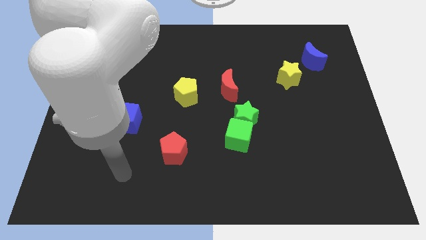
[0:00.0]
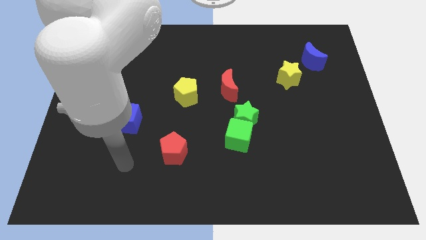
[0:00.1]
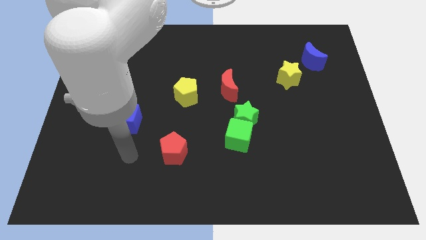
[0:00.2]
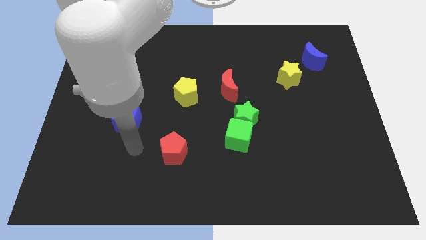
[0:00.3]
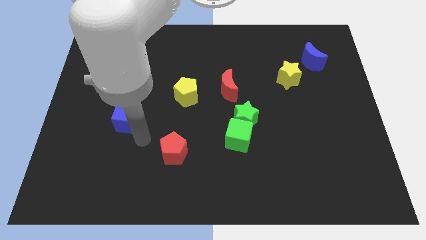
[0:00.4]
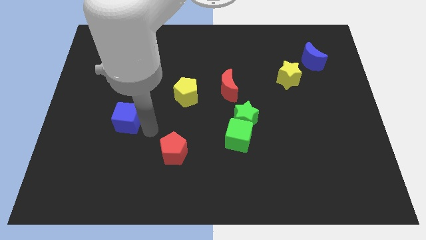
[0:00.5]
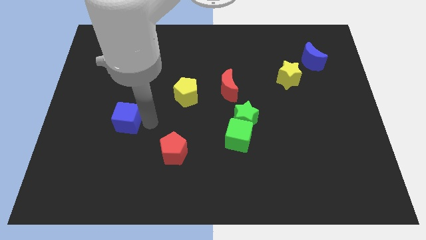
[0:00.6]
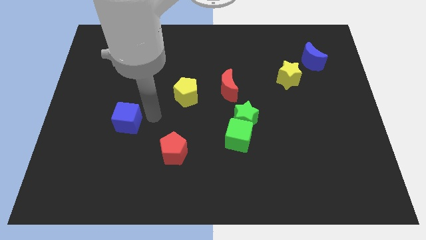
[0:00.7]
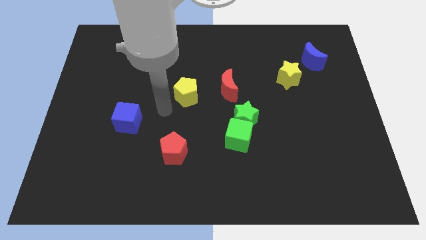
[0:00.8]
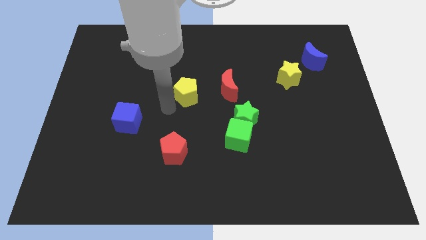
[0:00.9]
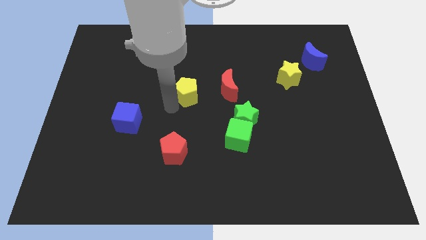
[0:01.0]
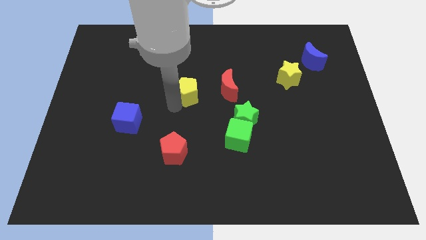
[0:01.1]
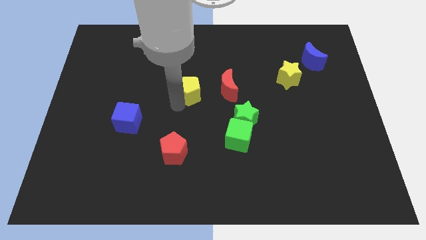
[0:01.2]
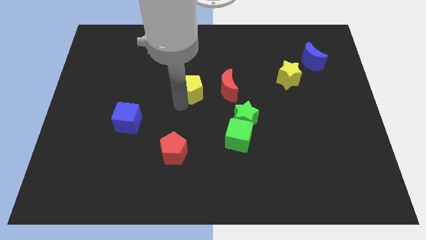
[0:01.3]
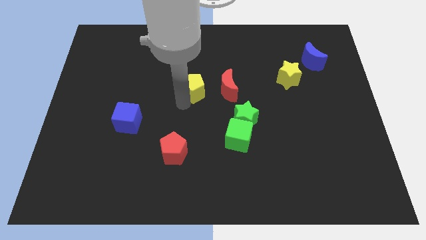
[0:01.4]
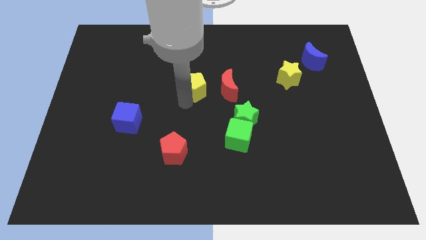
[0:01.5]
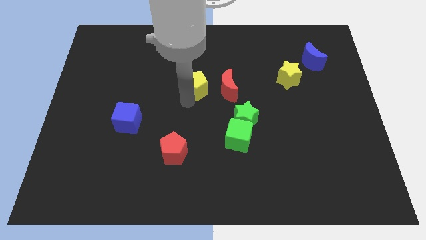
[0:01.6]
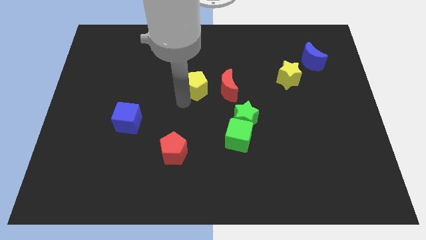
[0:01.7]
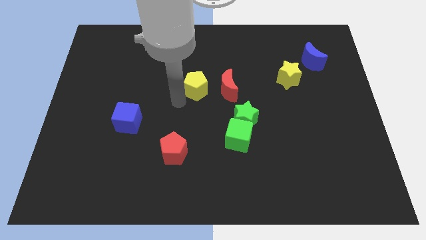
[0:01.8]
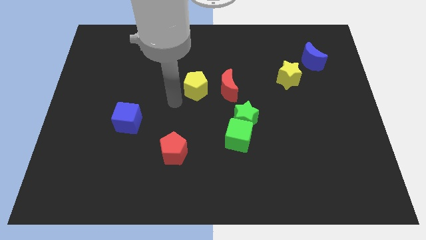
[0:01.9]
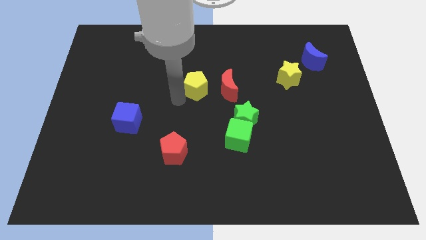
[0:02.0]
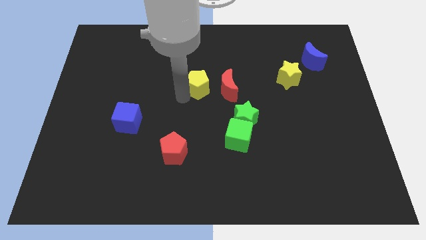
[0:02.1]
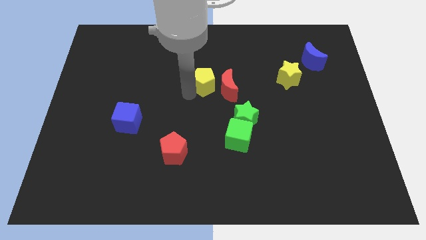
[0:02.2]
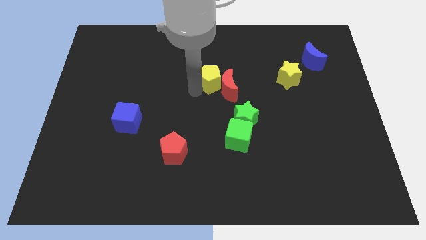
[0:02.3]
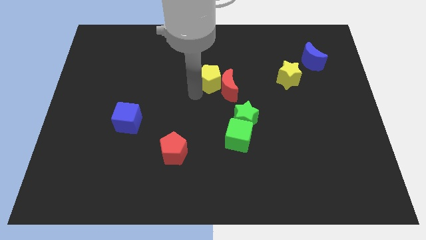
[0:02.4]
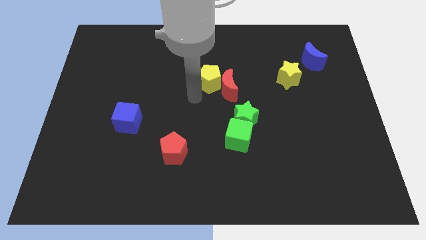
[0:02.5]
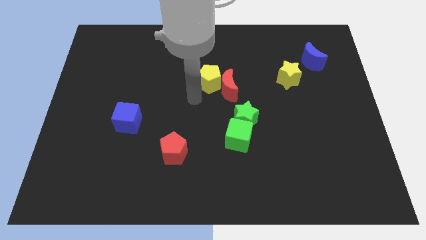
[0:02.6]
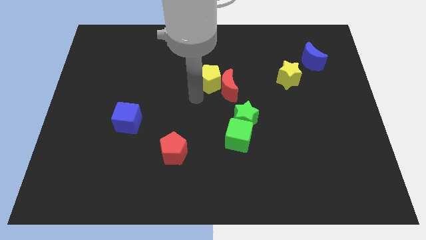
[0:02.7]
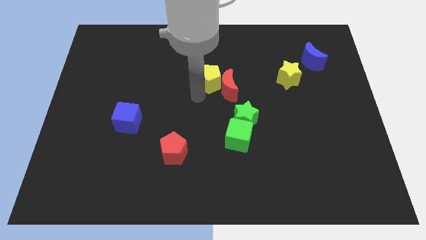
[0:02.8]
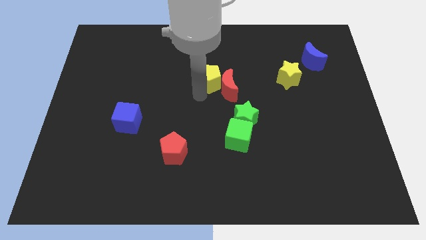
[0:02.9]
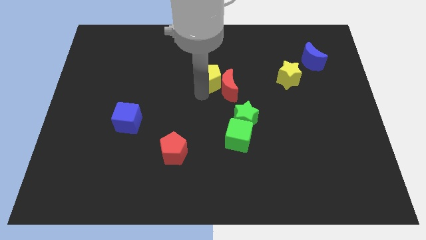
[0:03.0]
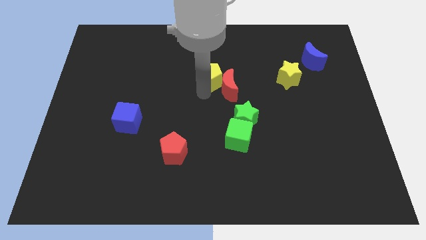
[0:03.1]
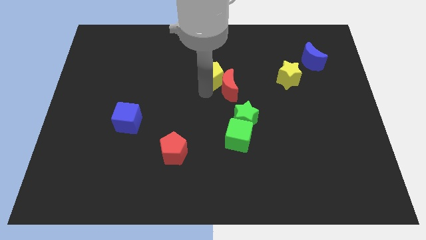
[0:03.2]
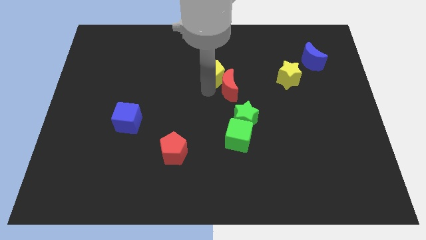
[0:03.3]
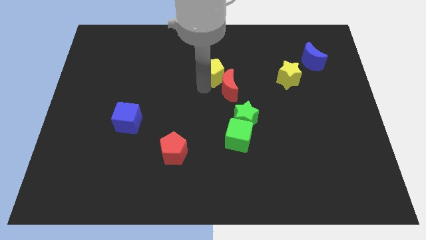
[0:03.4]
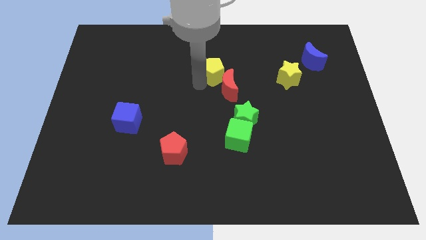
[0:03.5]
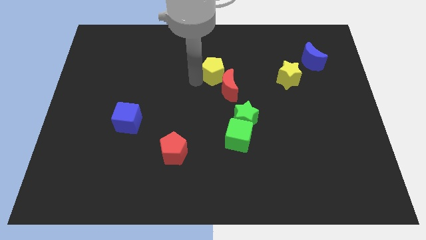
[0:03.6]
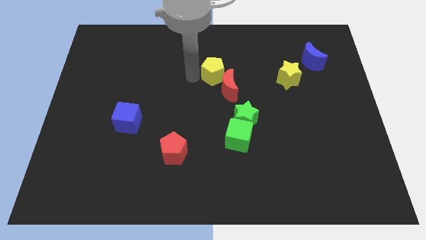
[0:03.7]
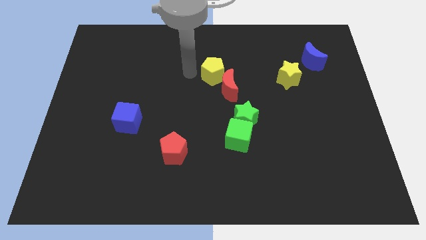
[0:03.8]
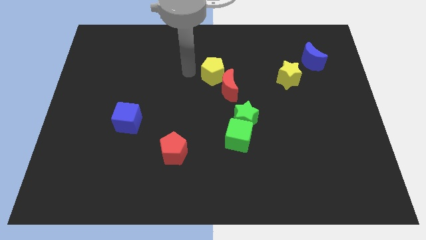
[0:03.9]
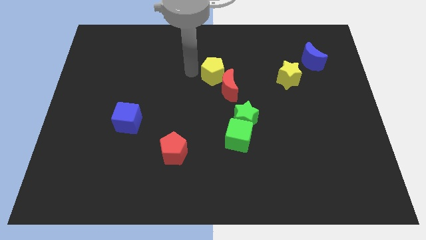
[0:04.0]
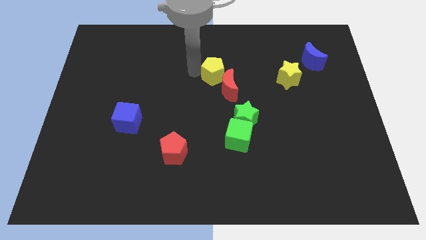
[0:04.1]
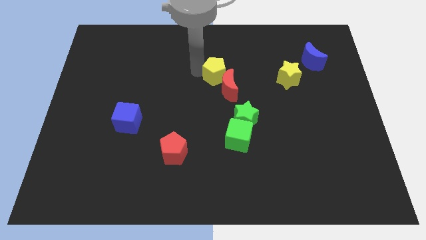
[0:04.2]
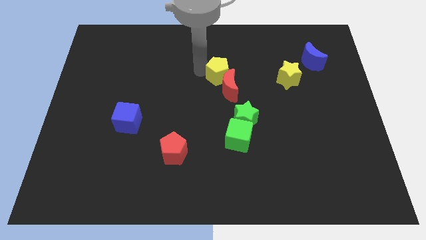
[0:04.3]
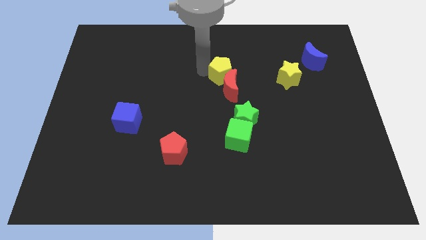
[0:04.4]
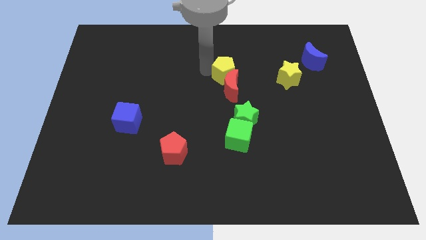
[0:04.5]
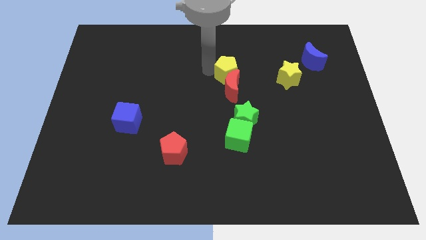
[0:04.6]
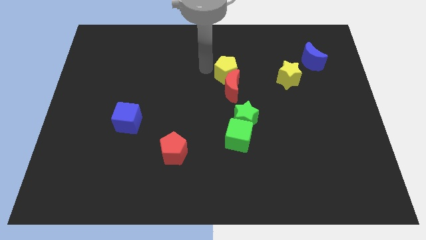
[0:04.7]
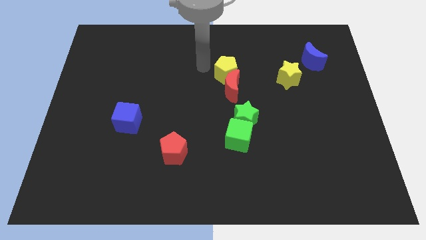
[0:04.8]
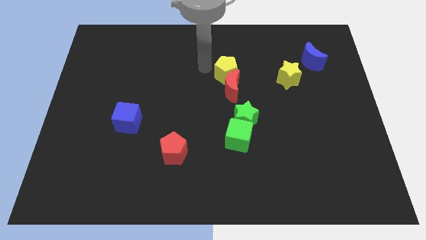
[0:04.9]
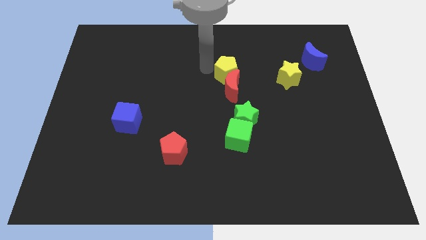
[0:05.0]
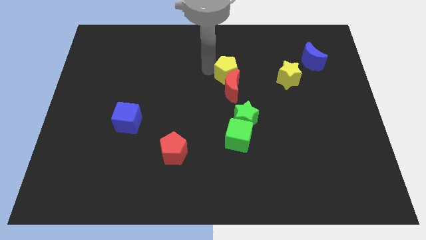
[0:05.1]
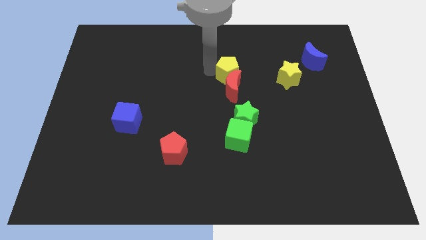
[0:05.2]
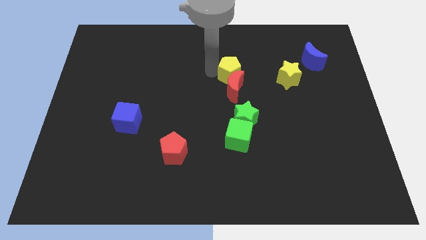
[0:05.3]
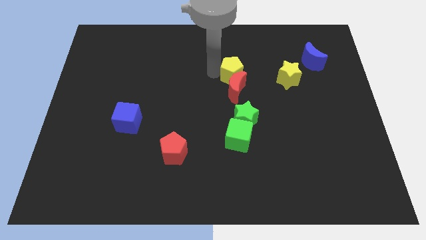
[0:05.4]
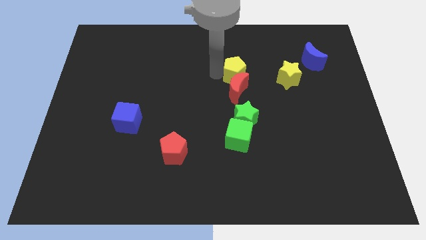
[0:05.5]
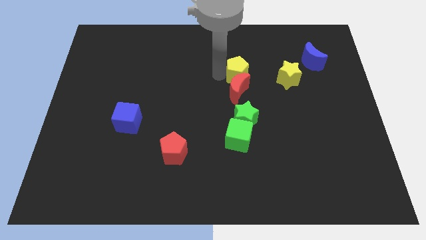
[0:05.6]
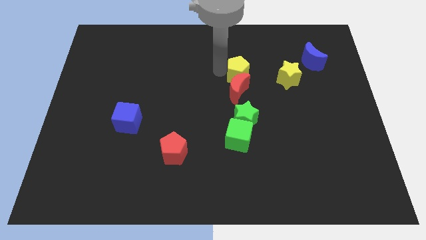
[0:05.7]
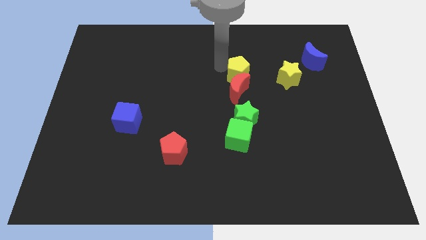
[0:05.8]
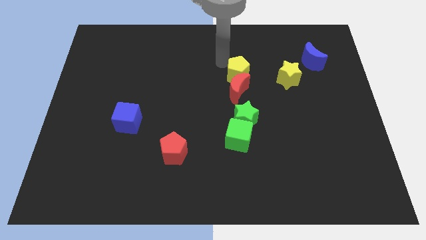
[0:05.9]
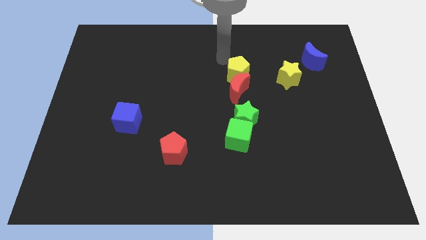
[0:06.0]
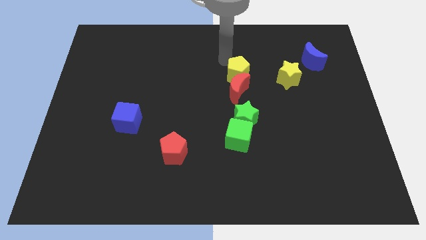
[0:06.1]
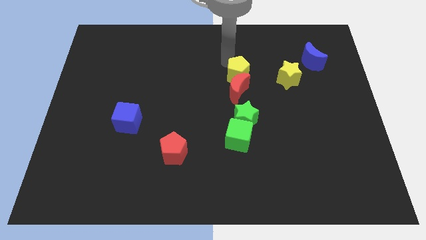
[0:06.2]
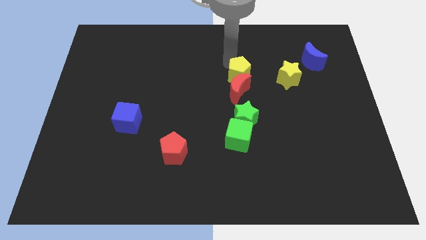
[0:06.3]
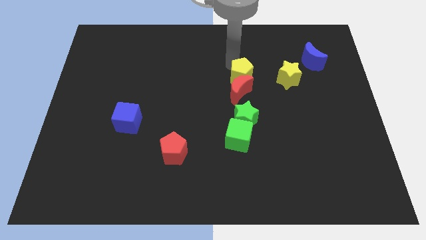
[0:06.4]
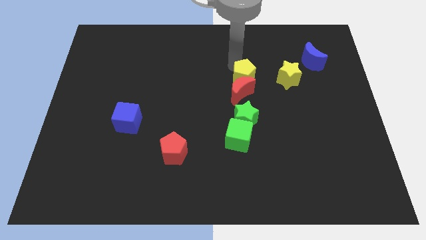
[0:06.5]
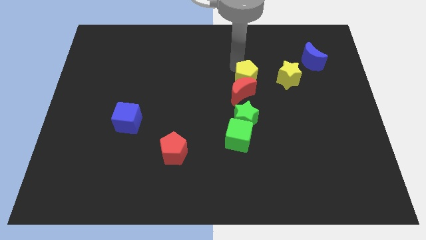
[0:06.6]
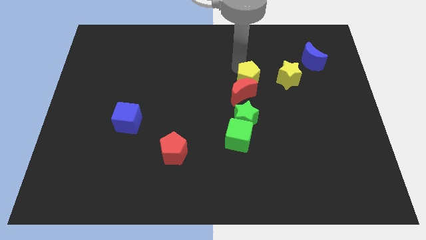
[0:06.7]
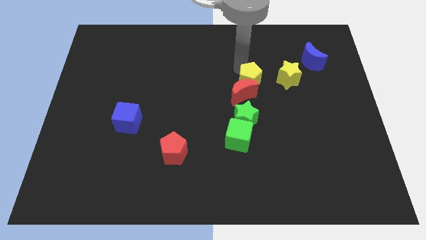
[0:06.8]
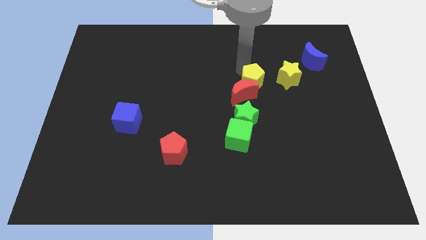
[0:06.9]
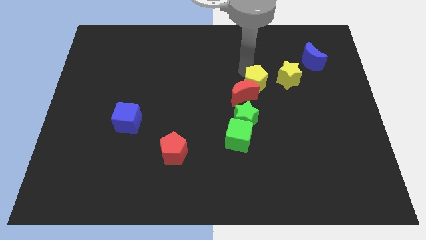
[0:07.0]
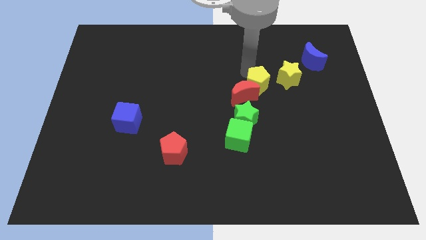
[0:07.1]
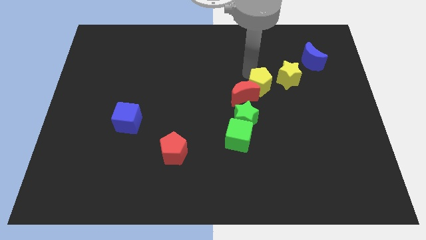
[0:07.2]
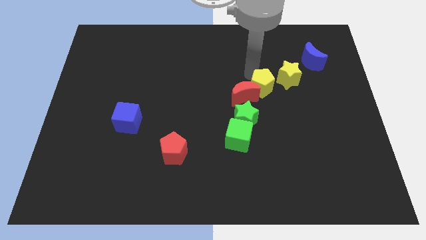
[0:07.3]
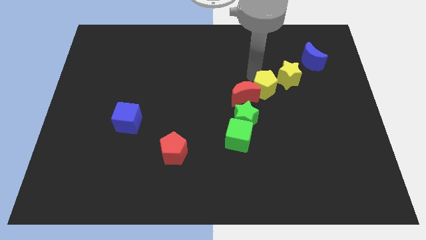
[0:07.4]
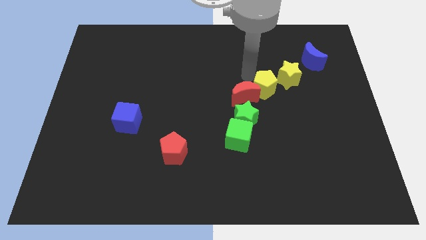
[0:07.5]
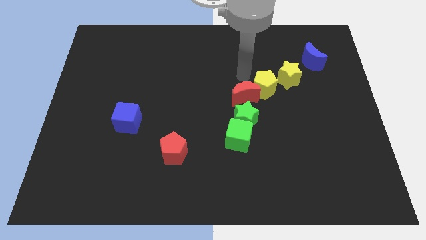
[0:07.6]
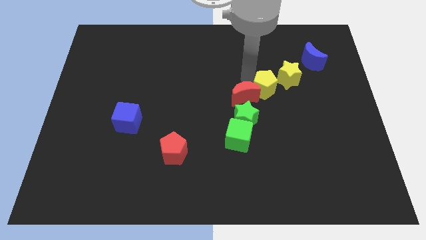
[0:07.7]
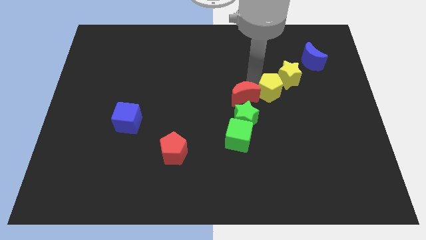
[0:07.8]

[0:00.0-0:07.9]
move the yellow pentagon to the right

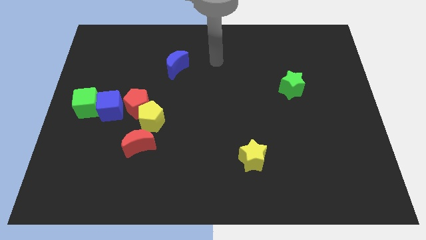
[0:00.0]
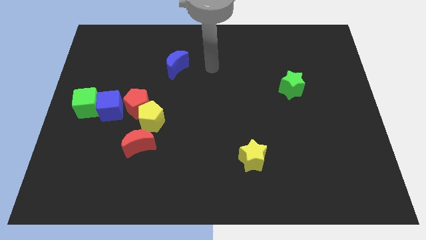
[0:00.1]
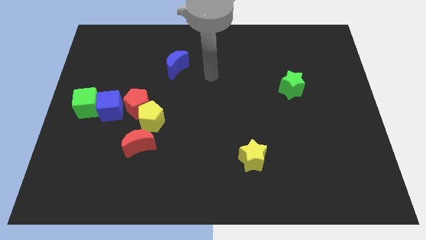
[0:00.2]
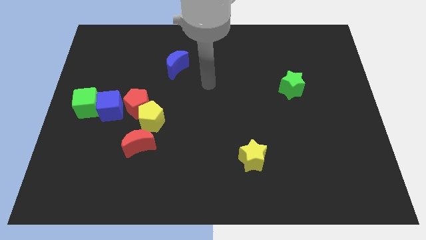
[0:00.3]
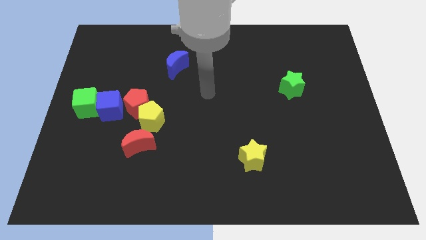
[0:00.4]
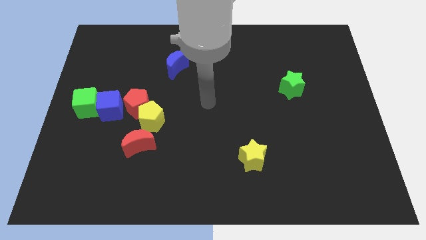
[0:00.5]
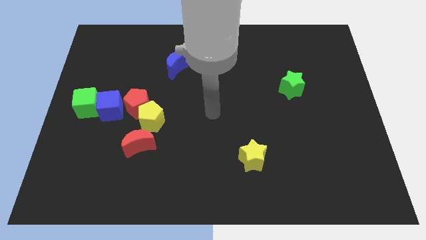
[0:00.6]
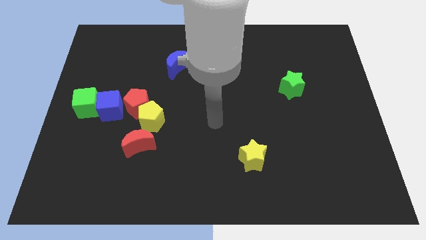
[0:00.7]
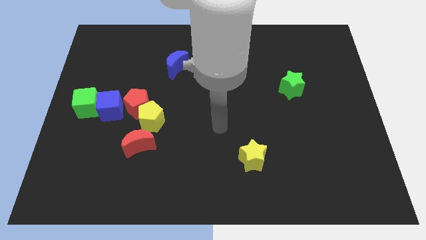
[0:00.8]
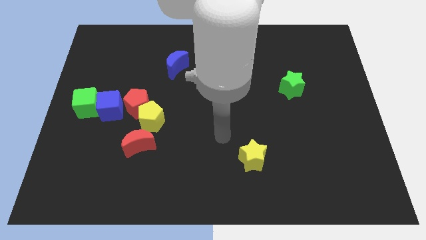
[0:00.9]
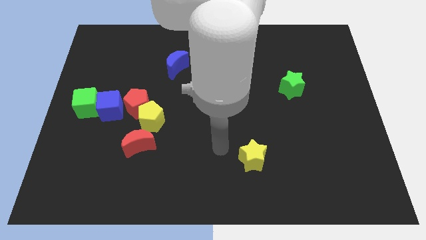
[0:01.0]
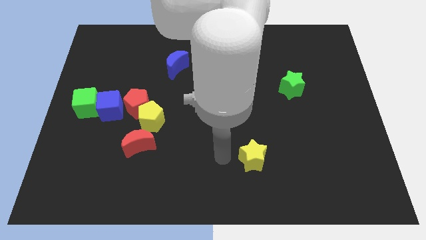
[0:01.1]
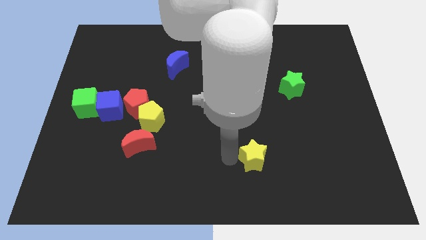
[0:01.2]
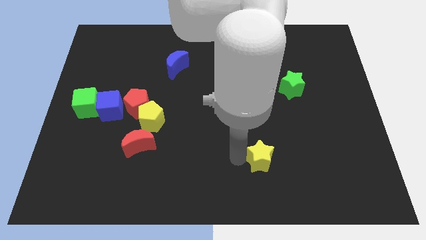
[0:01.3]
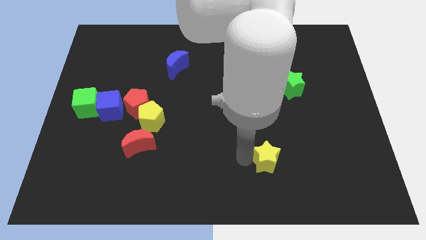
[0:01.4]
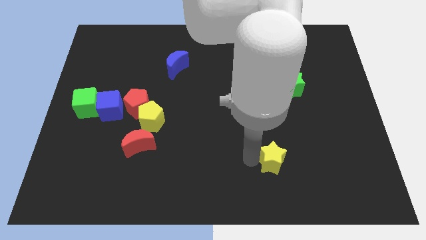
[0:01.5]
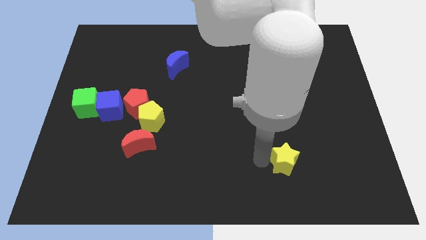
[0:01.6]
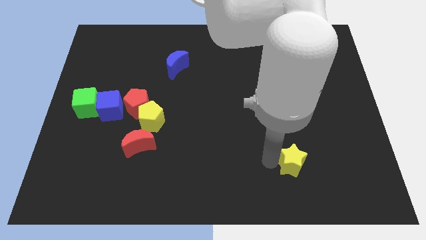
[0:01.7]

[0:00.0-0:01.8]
slightly slide the yellow star right
